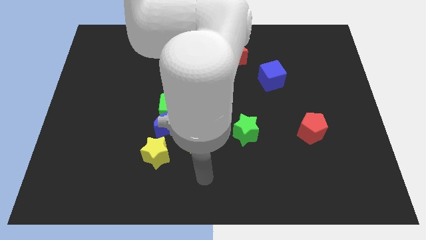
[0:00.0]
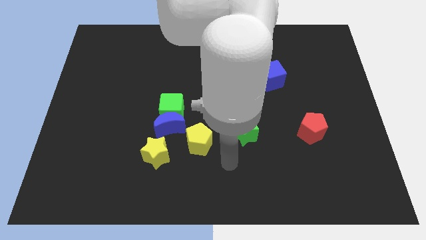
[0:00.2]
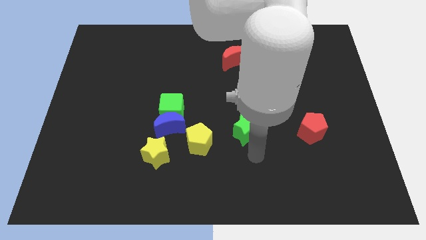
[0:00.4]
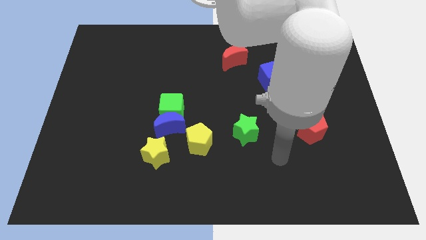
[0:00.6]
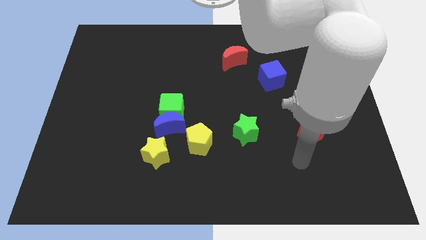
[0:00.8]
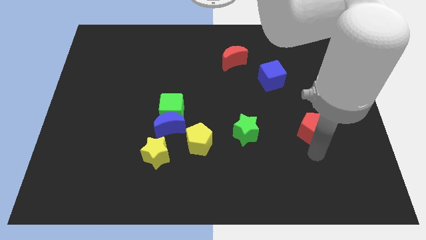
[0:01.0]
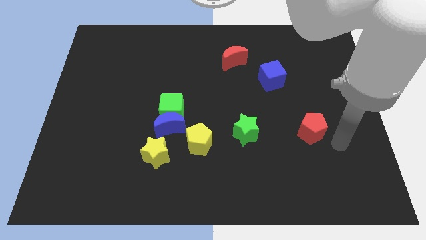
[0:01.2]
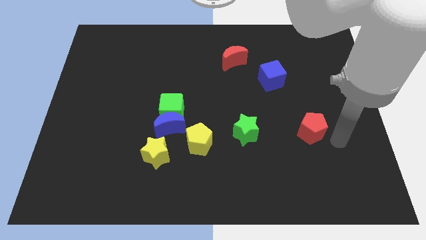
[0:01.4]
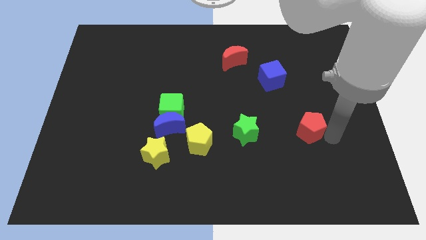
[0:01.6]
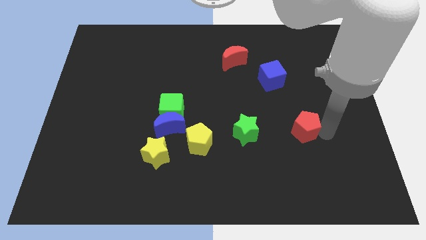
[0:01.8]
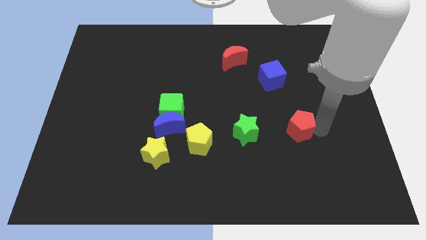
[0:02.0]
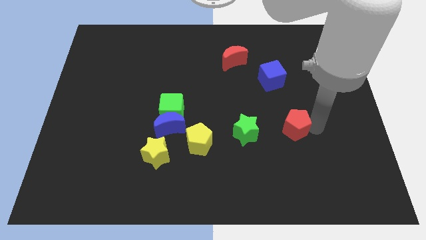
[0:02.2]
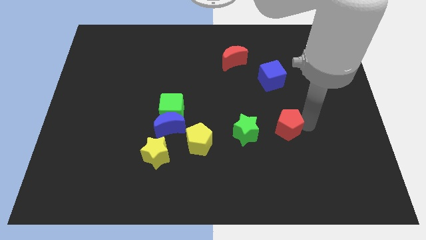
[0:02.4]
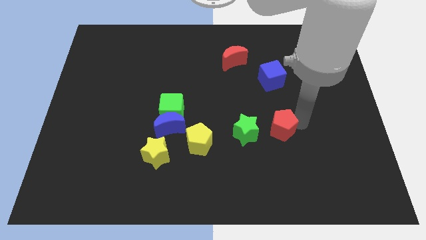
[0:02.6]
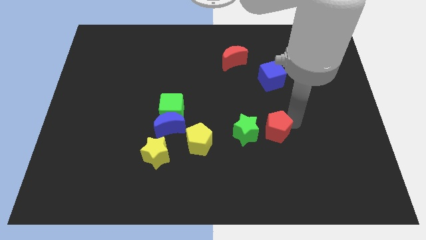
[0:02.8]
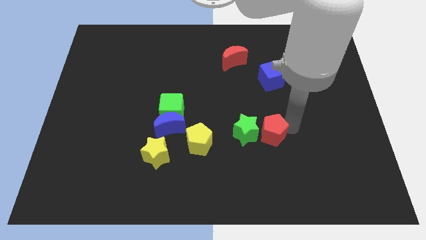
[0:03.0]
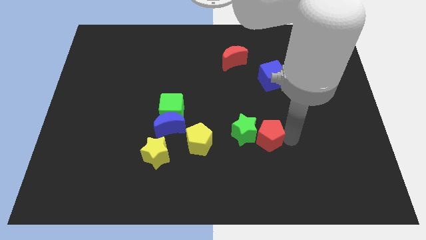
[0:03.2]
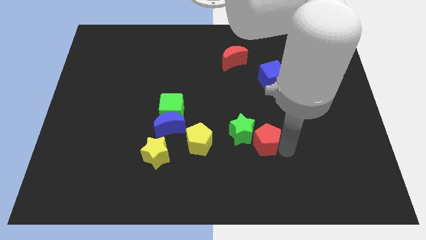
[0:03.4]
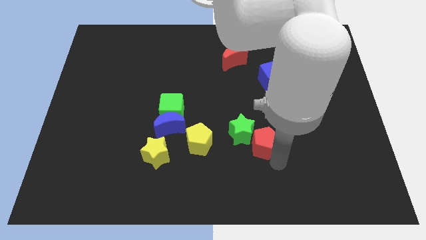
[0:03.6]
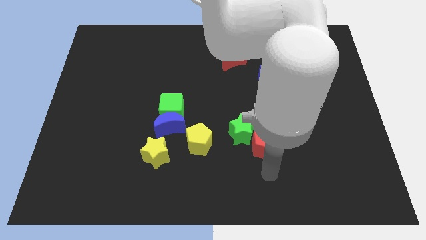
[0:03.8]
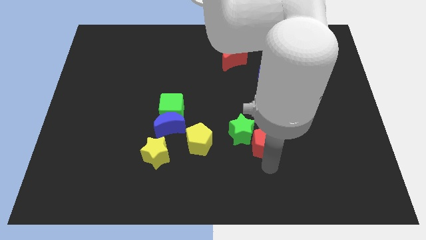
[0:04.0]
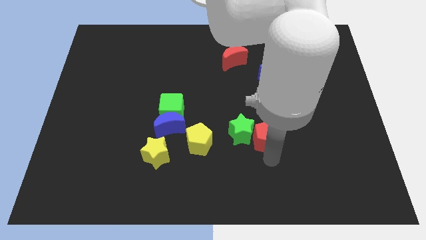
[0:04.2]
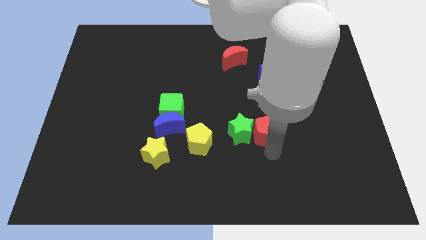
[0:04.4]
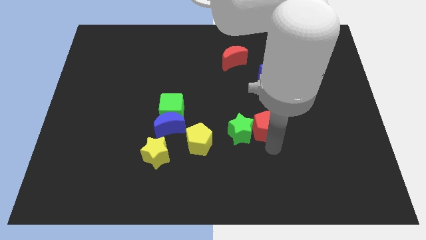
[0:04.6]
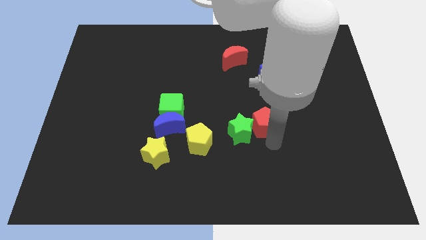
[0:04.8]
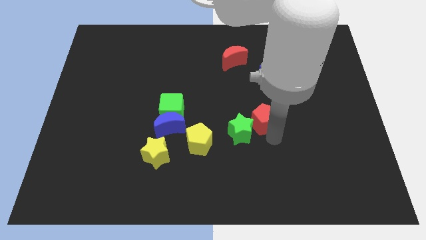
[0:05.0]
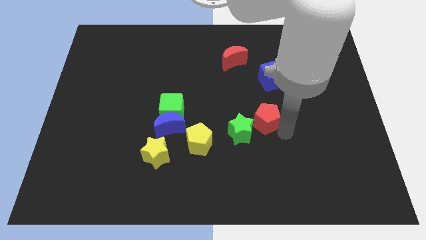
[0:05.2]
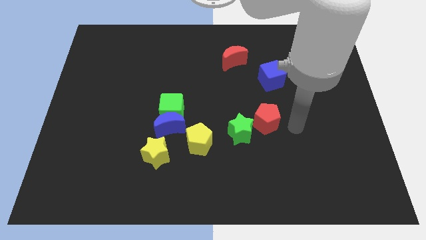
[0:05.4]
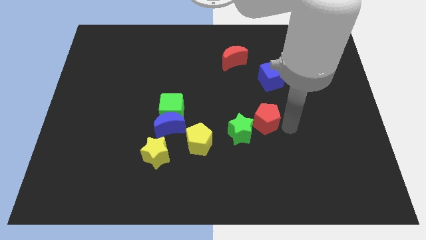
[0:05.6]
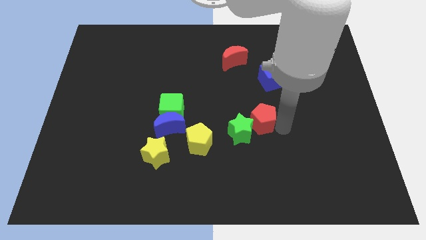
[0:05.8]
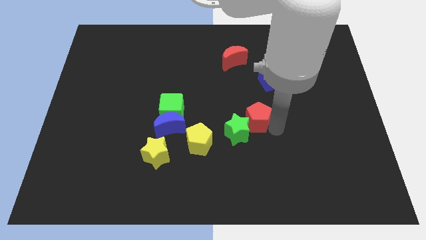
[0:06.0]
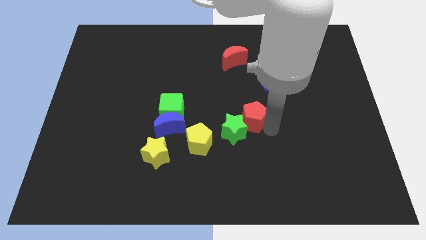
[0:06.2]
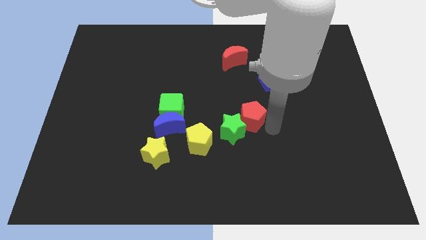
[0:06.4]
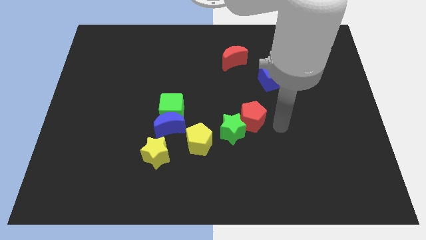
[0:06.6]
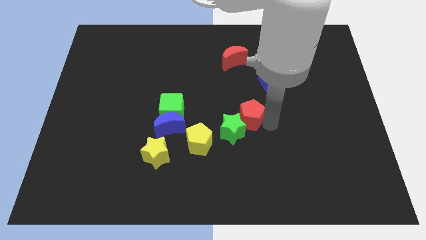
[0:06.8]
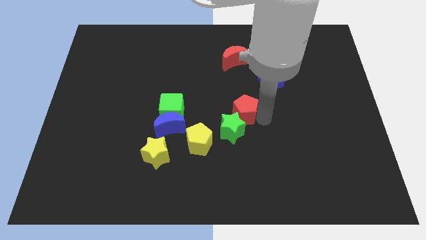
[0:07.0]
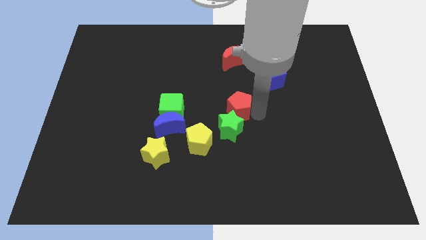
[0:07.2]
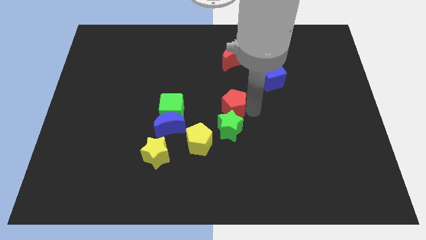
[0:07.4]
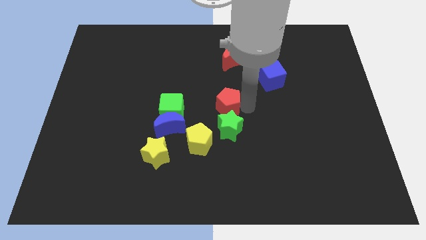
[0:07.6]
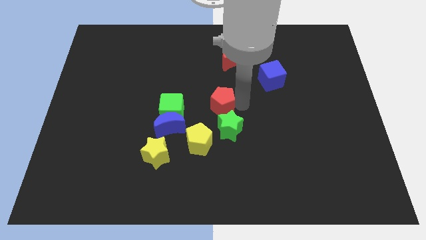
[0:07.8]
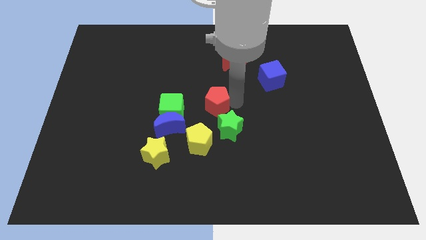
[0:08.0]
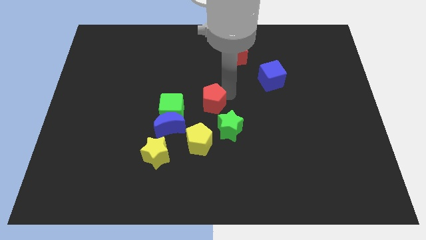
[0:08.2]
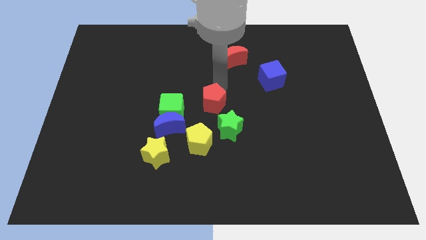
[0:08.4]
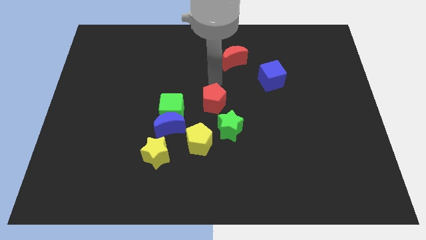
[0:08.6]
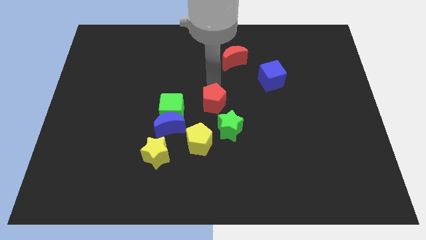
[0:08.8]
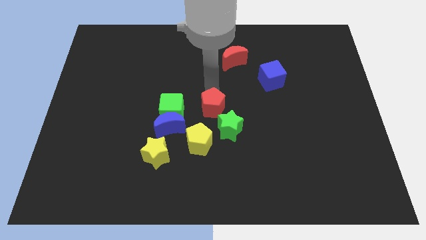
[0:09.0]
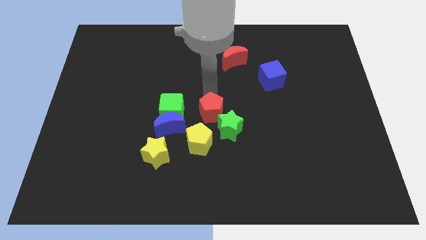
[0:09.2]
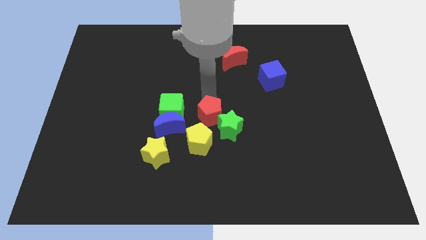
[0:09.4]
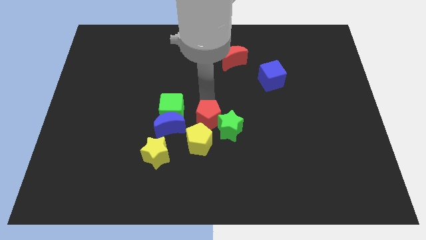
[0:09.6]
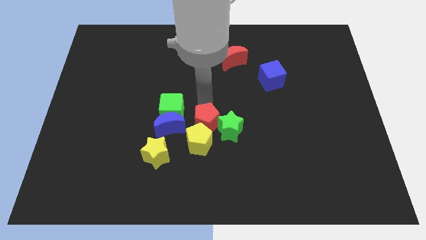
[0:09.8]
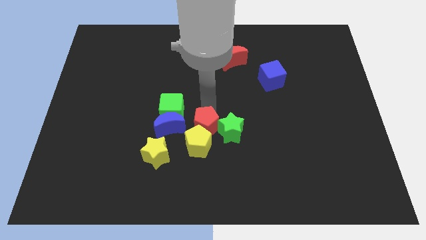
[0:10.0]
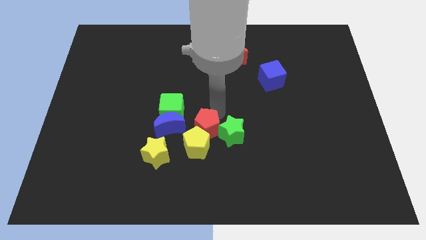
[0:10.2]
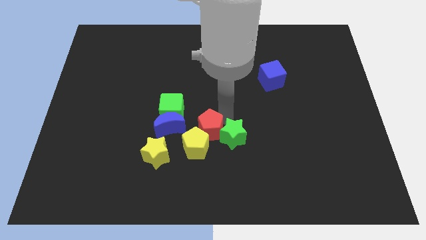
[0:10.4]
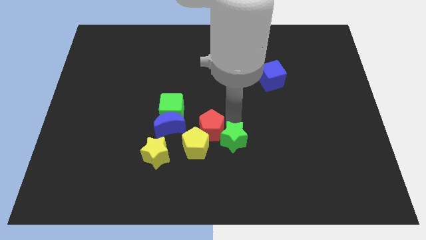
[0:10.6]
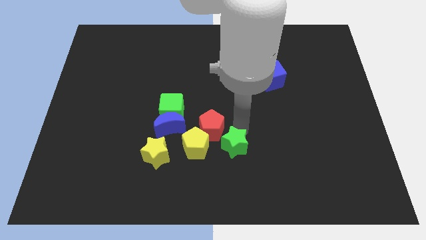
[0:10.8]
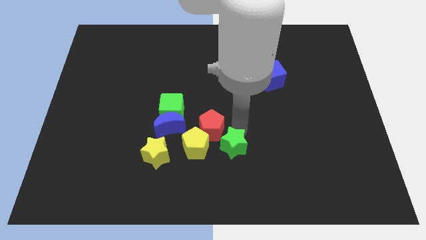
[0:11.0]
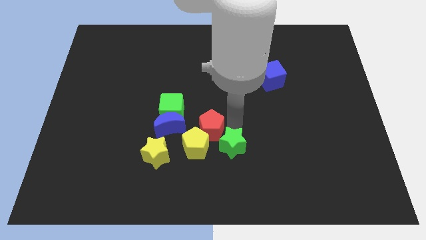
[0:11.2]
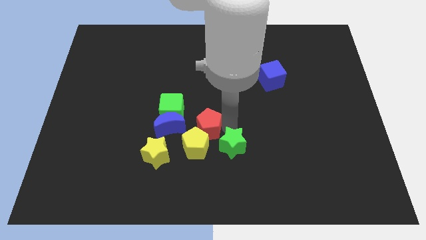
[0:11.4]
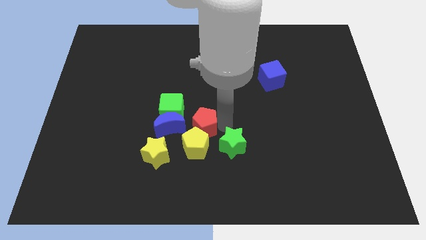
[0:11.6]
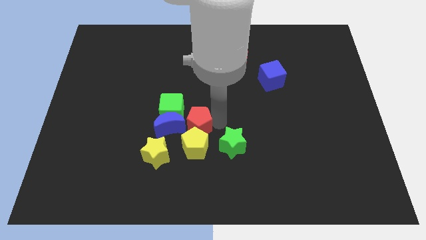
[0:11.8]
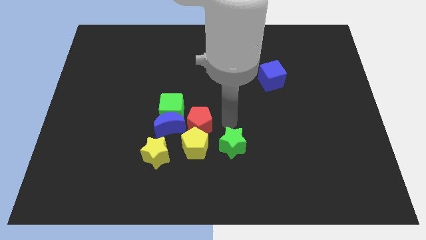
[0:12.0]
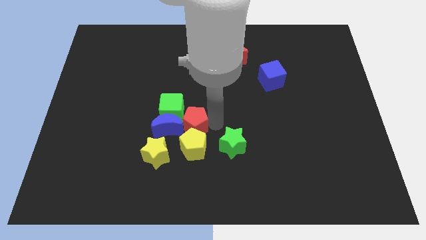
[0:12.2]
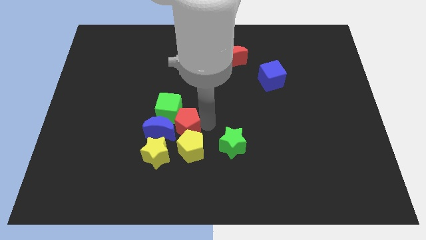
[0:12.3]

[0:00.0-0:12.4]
push the red pentagon towards the blue moon

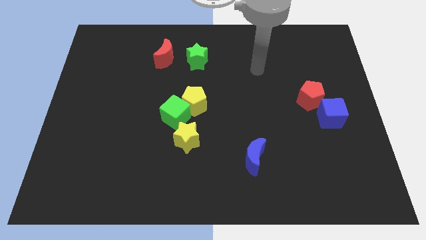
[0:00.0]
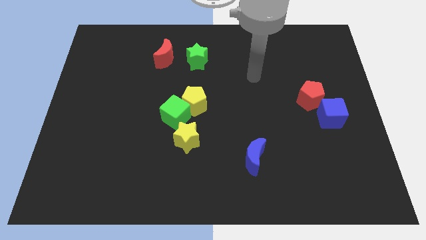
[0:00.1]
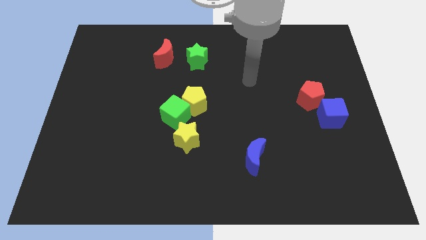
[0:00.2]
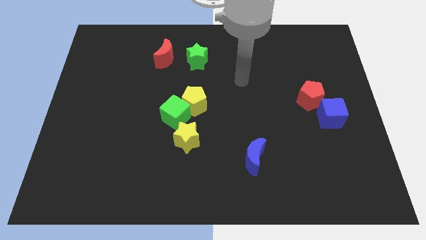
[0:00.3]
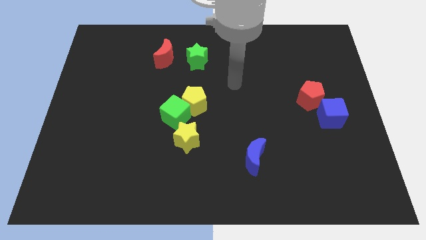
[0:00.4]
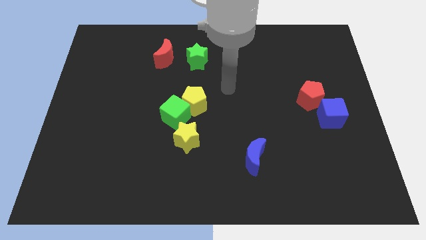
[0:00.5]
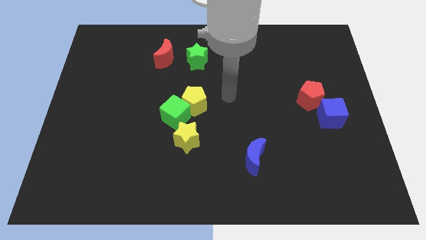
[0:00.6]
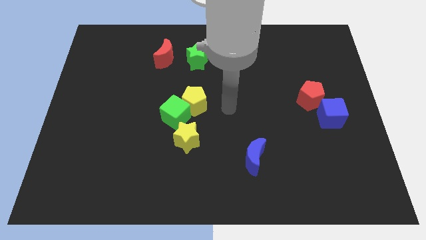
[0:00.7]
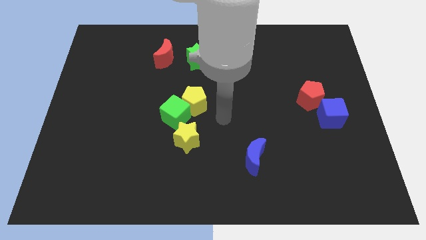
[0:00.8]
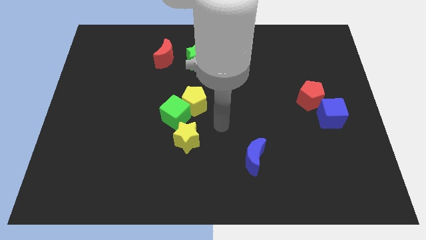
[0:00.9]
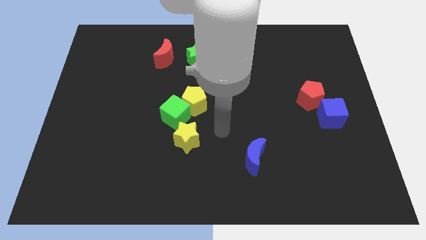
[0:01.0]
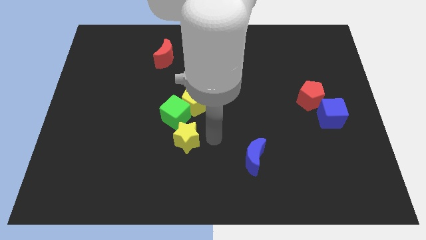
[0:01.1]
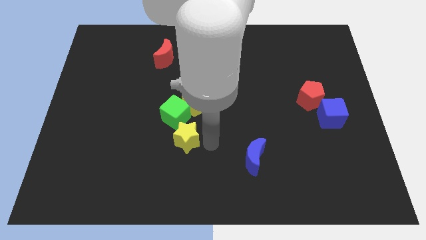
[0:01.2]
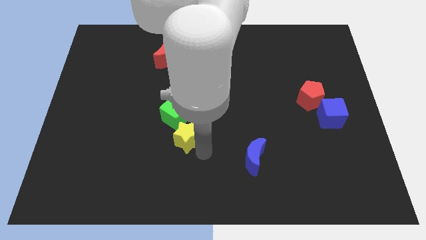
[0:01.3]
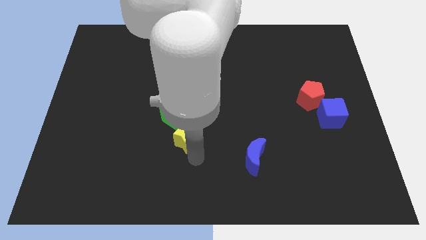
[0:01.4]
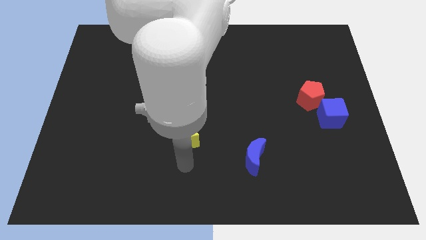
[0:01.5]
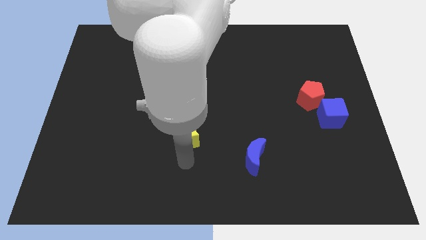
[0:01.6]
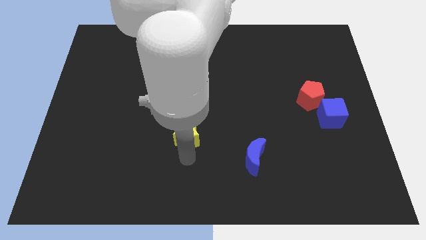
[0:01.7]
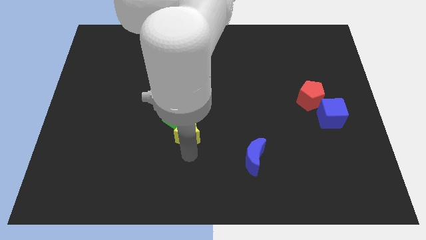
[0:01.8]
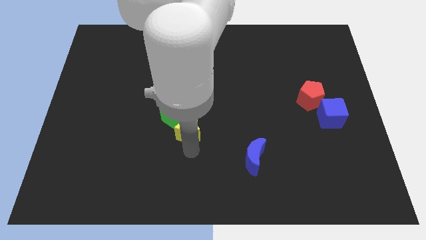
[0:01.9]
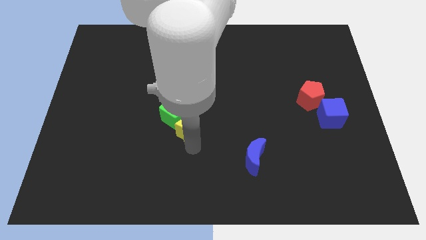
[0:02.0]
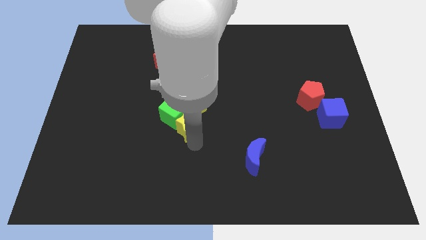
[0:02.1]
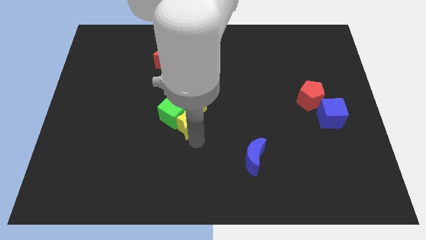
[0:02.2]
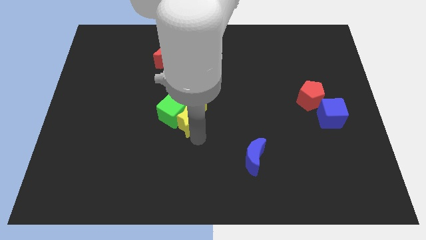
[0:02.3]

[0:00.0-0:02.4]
put the yellow star to the yellow pentagon
